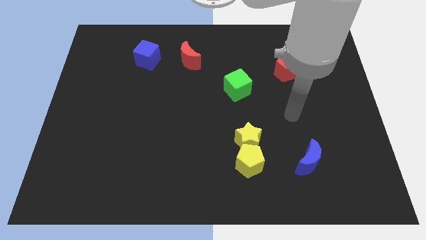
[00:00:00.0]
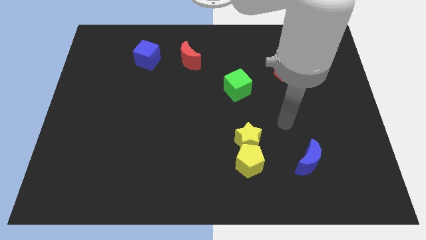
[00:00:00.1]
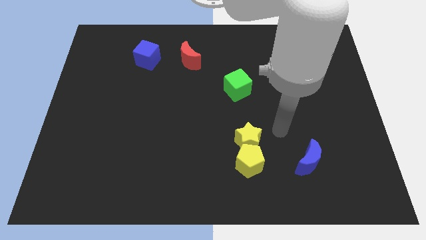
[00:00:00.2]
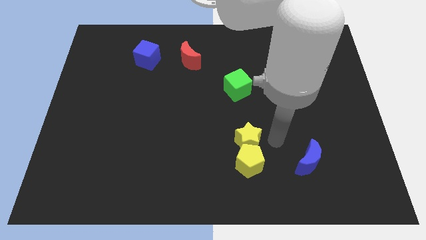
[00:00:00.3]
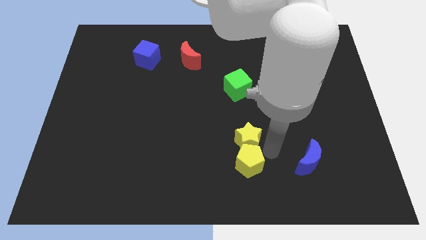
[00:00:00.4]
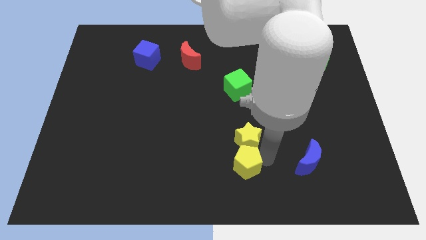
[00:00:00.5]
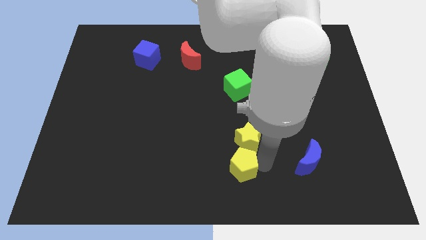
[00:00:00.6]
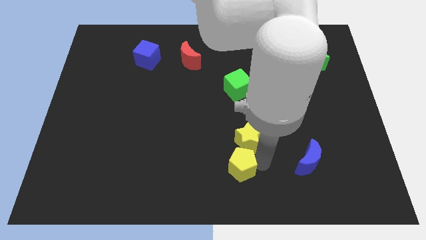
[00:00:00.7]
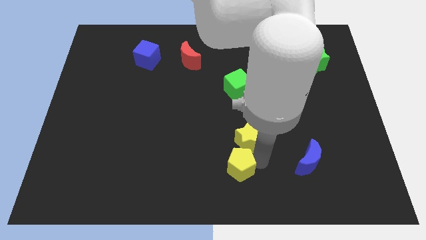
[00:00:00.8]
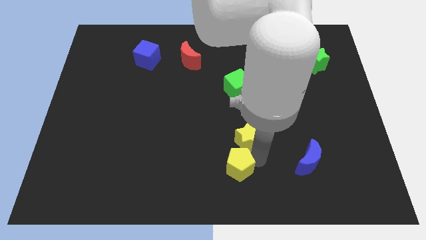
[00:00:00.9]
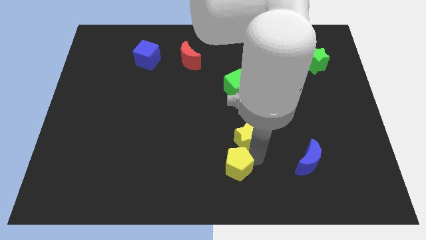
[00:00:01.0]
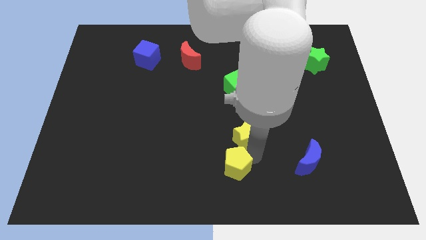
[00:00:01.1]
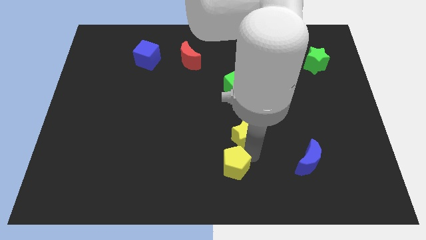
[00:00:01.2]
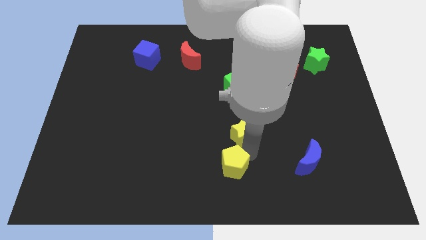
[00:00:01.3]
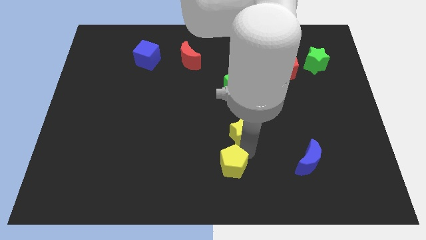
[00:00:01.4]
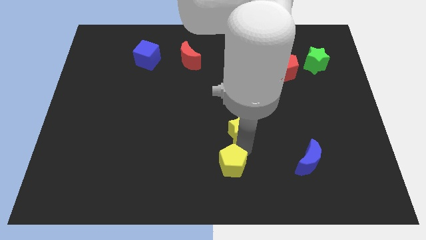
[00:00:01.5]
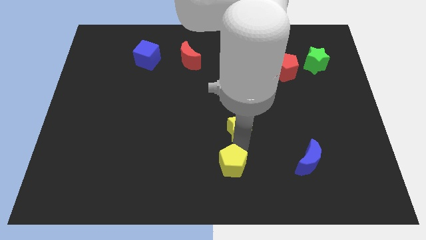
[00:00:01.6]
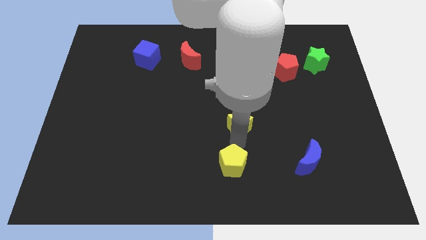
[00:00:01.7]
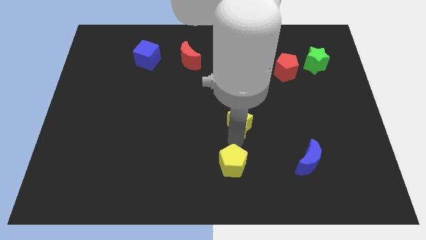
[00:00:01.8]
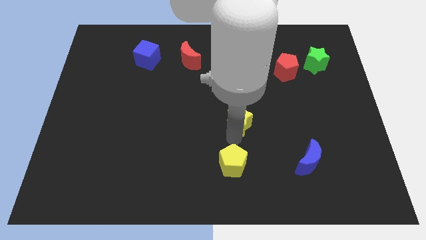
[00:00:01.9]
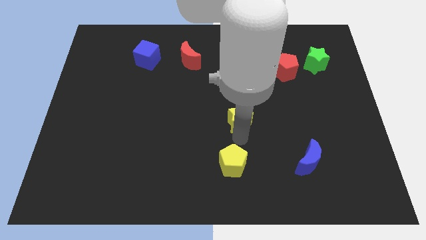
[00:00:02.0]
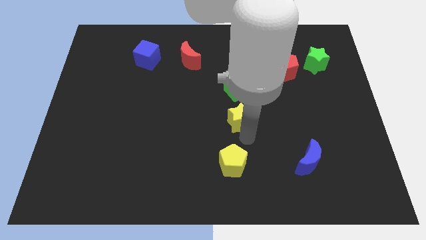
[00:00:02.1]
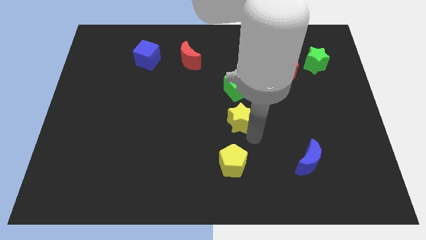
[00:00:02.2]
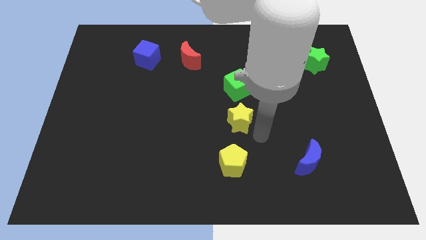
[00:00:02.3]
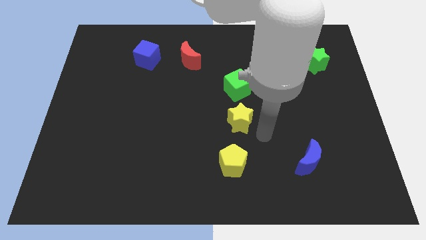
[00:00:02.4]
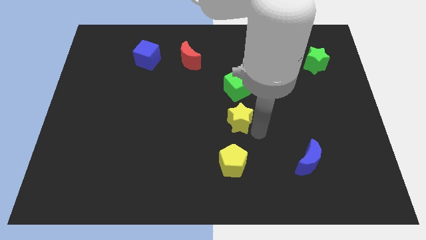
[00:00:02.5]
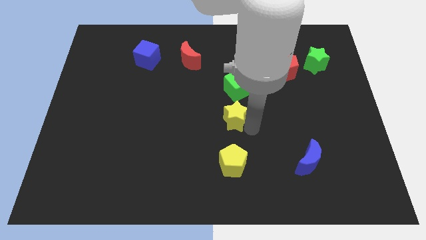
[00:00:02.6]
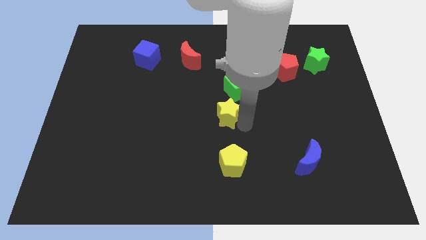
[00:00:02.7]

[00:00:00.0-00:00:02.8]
push the yellow star upwards and then left a bit

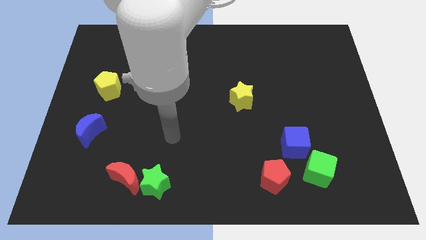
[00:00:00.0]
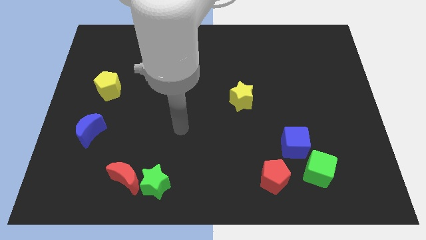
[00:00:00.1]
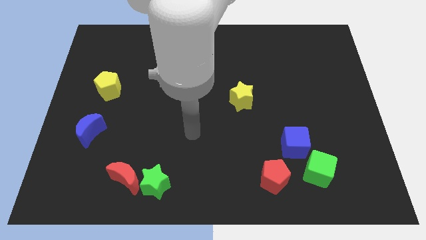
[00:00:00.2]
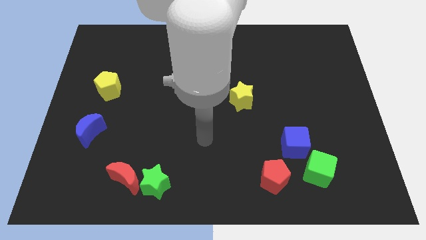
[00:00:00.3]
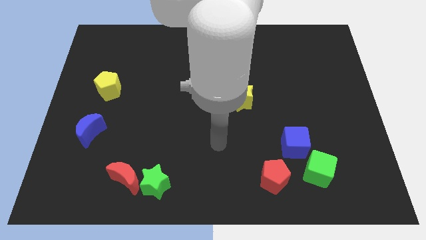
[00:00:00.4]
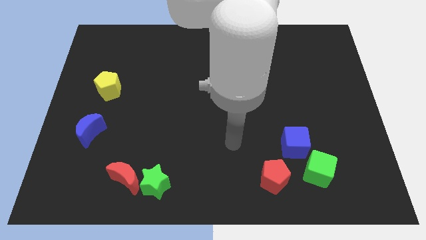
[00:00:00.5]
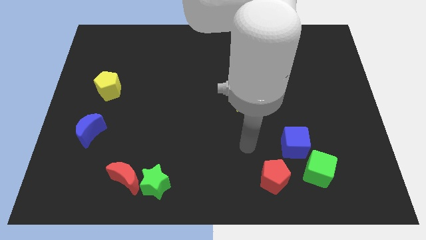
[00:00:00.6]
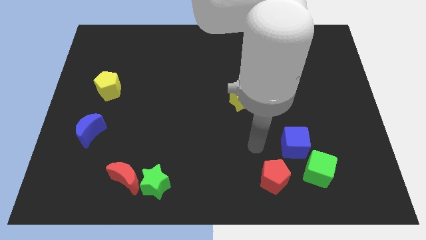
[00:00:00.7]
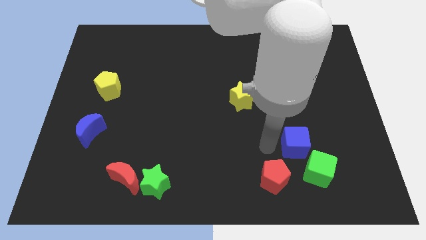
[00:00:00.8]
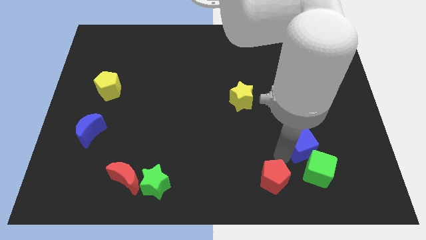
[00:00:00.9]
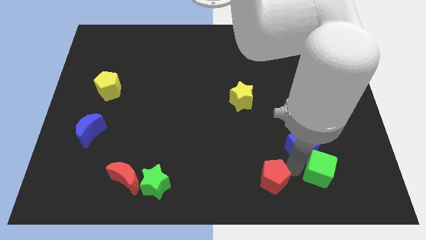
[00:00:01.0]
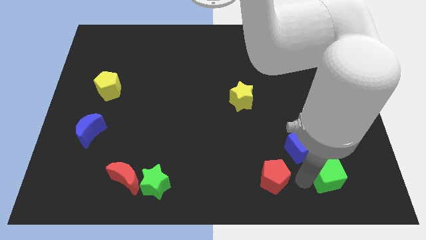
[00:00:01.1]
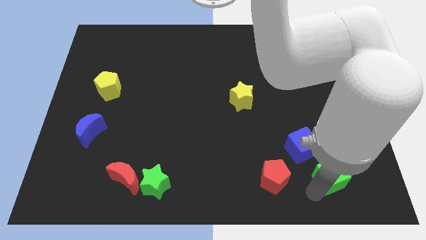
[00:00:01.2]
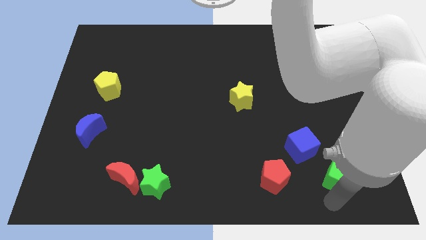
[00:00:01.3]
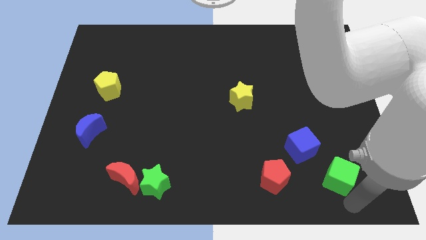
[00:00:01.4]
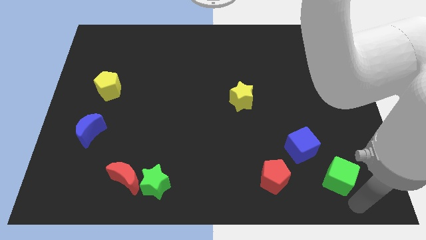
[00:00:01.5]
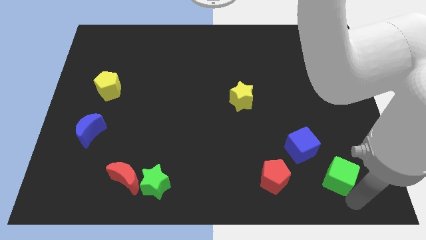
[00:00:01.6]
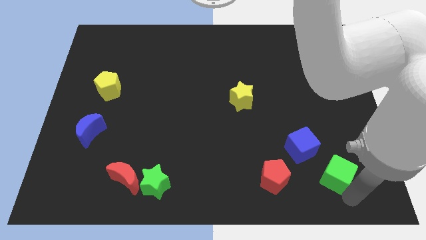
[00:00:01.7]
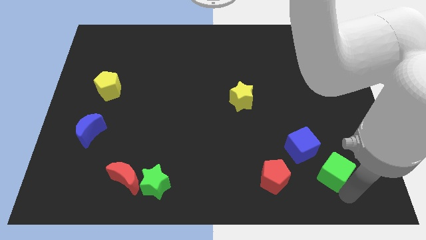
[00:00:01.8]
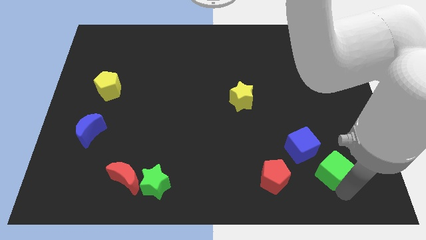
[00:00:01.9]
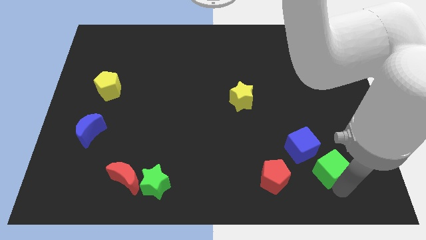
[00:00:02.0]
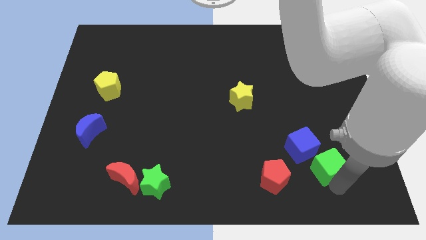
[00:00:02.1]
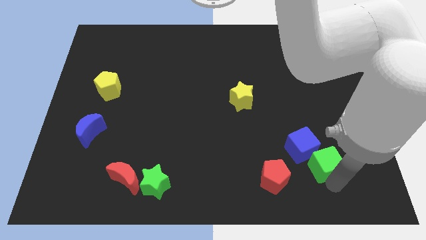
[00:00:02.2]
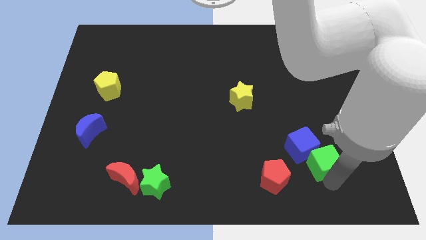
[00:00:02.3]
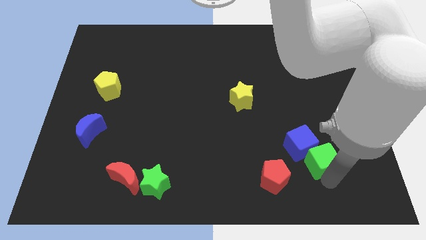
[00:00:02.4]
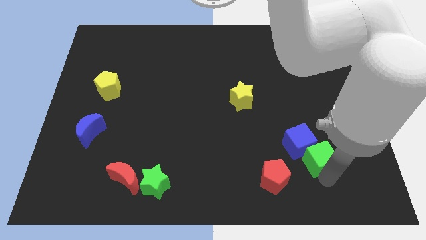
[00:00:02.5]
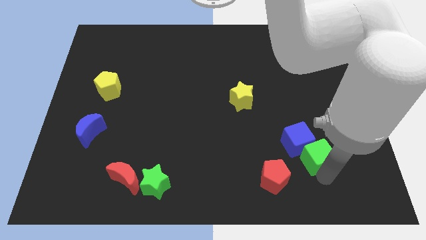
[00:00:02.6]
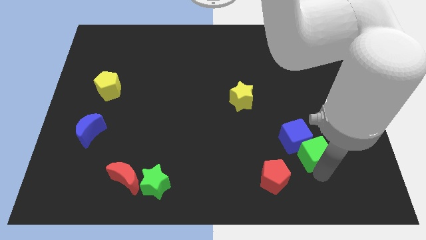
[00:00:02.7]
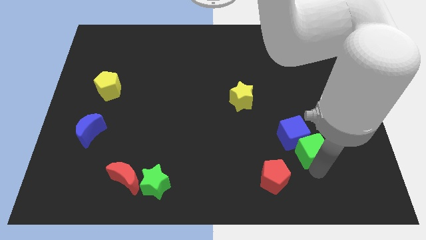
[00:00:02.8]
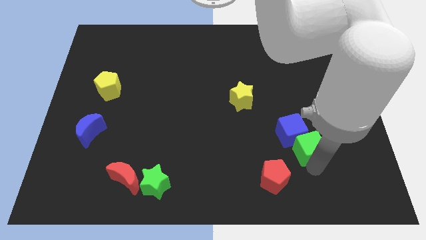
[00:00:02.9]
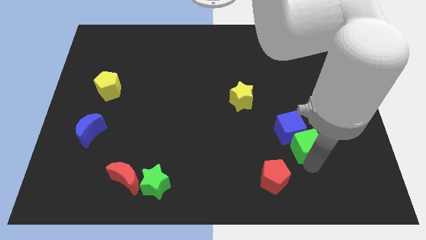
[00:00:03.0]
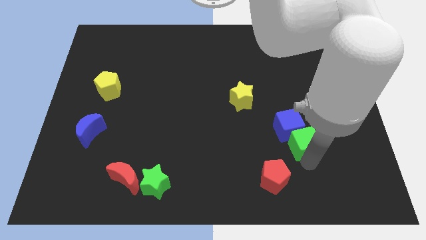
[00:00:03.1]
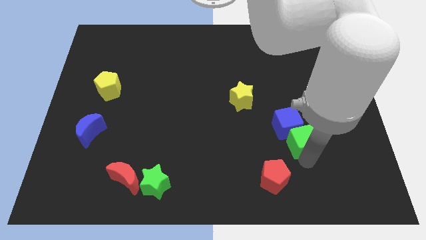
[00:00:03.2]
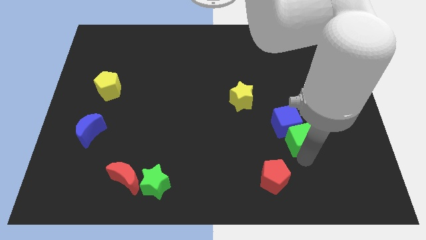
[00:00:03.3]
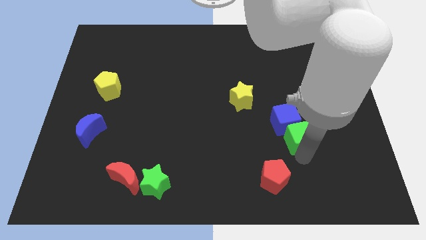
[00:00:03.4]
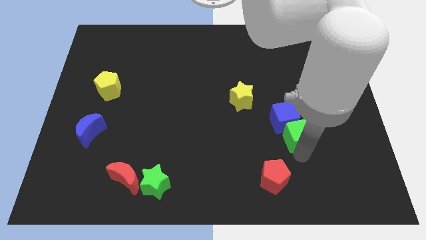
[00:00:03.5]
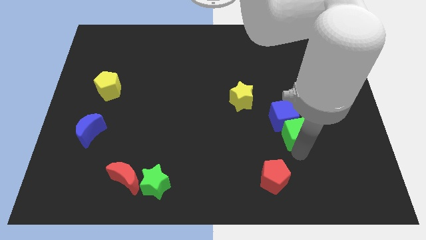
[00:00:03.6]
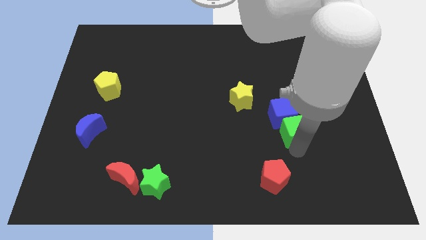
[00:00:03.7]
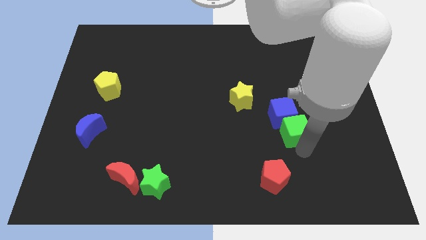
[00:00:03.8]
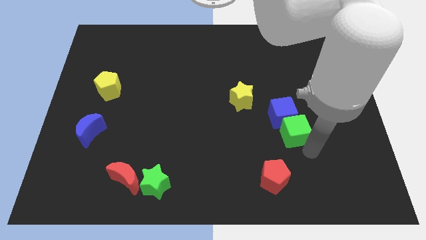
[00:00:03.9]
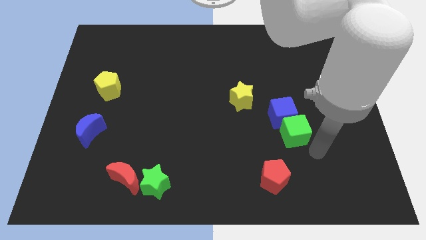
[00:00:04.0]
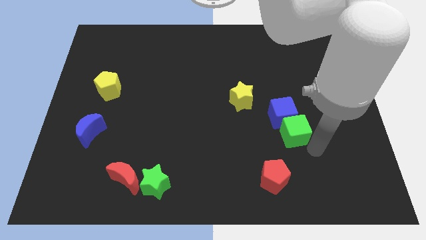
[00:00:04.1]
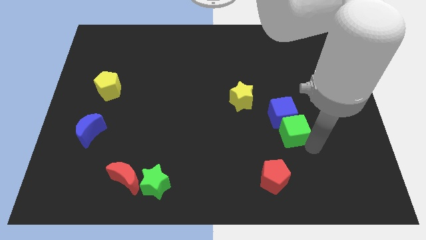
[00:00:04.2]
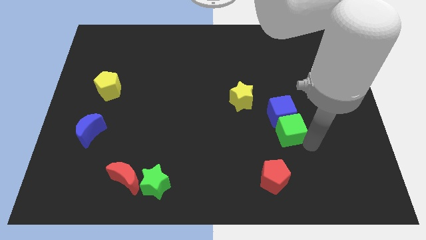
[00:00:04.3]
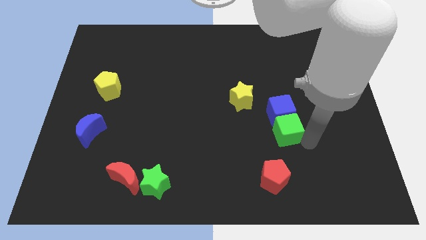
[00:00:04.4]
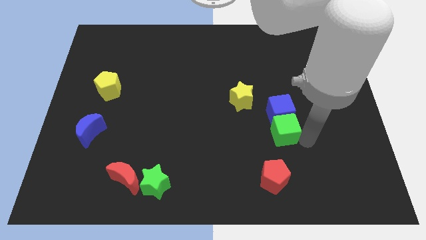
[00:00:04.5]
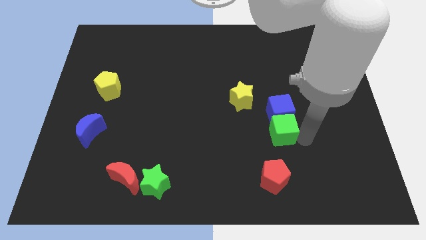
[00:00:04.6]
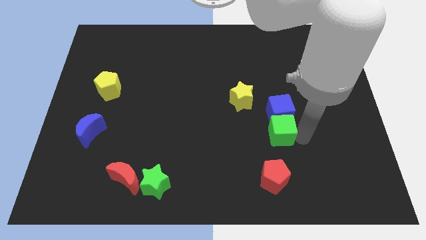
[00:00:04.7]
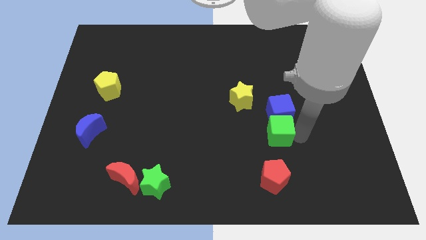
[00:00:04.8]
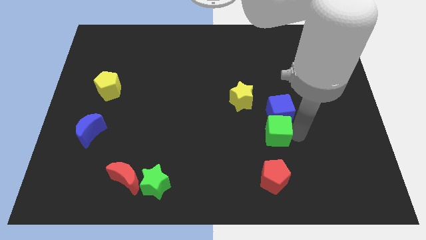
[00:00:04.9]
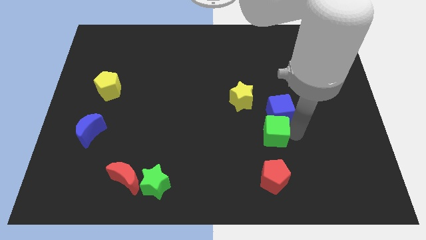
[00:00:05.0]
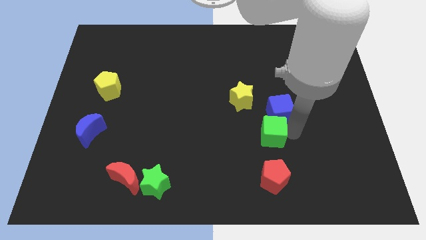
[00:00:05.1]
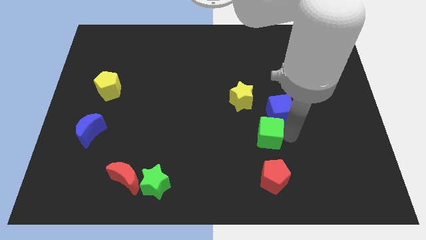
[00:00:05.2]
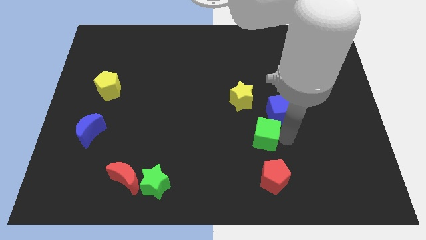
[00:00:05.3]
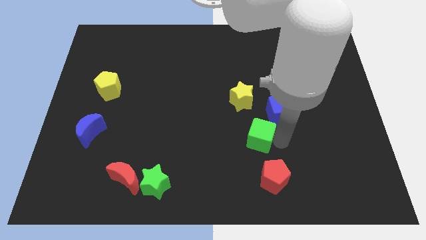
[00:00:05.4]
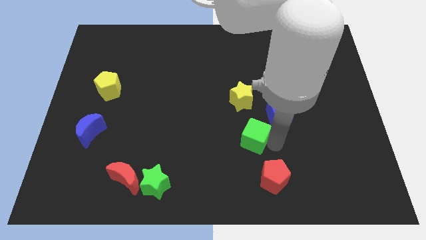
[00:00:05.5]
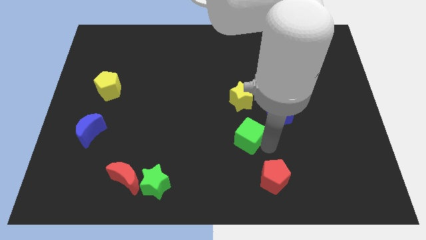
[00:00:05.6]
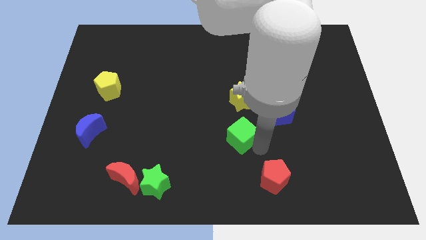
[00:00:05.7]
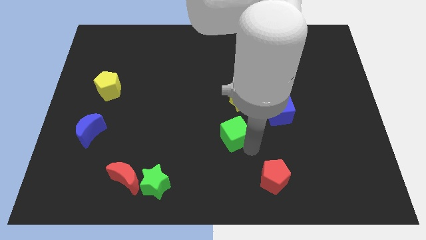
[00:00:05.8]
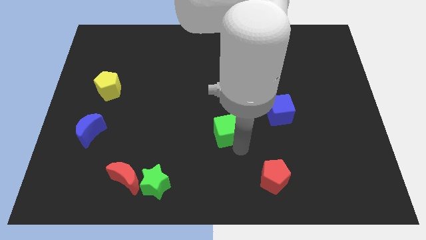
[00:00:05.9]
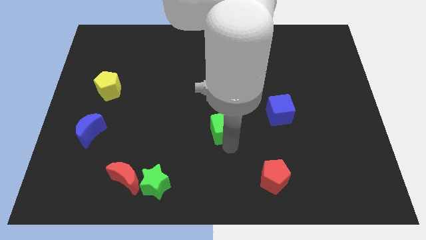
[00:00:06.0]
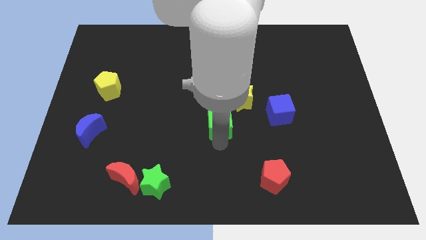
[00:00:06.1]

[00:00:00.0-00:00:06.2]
push the green cube upwards and left
